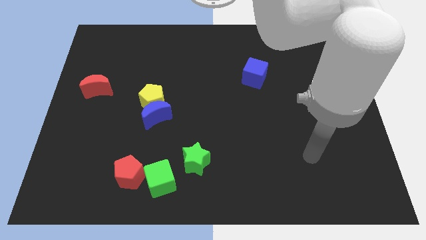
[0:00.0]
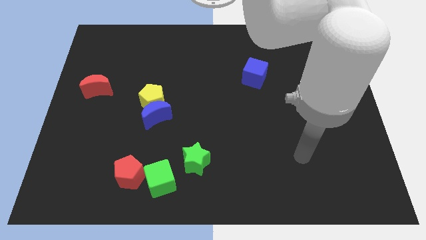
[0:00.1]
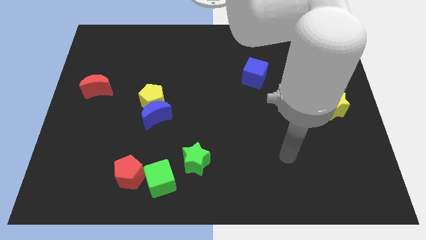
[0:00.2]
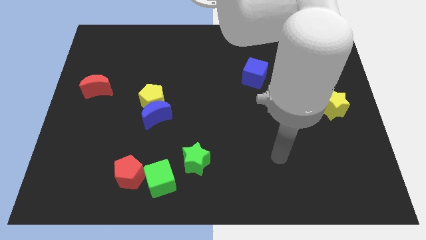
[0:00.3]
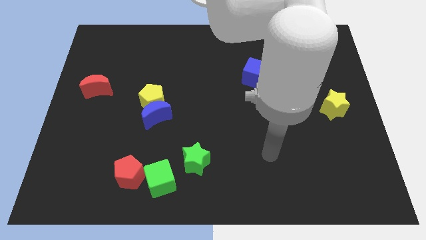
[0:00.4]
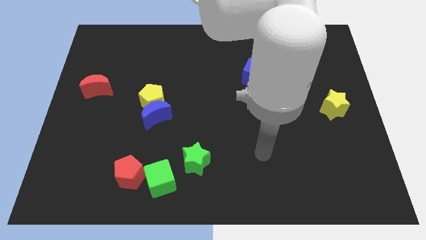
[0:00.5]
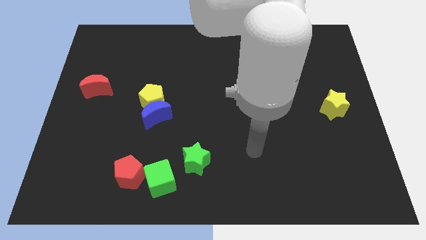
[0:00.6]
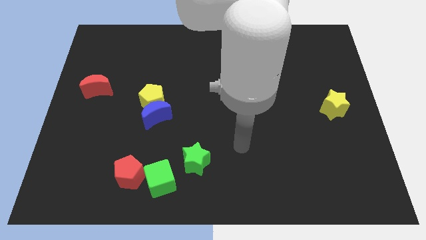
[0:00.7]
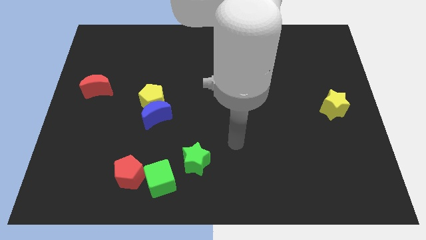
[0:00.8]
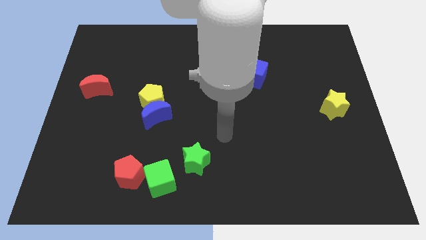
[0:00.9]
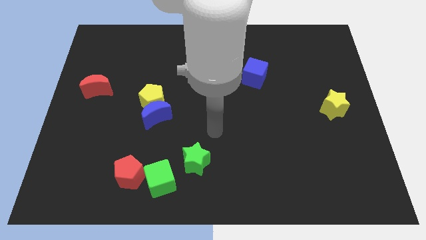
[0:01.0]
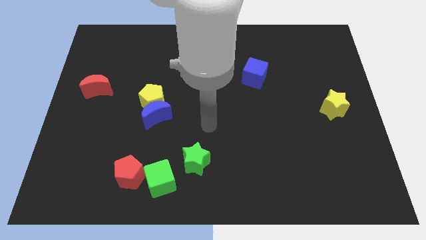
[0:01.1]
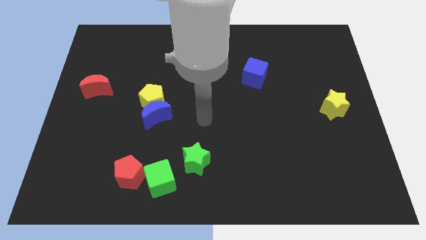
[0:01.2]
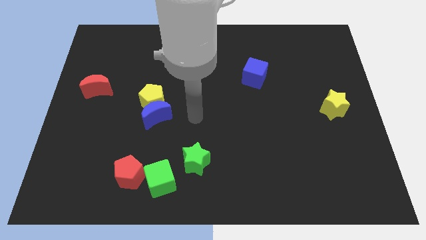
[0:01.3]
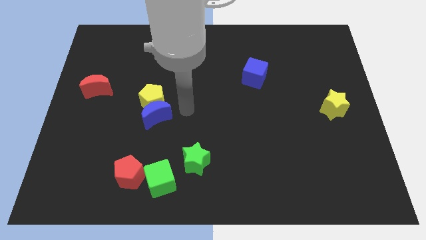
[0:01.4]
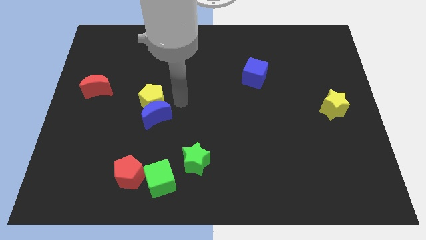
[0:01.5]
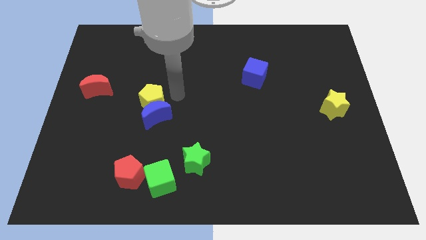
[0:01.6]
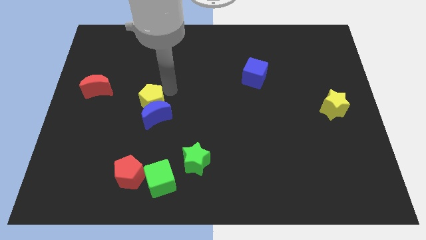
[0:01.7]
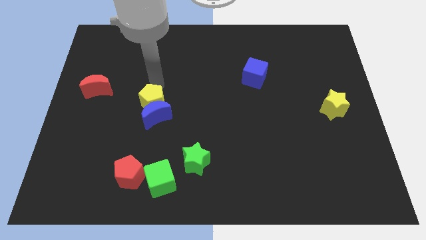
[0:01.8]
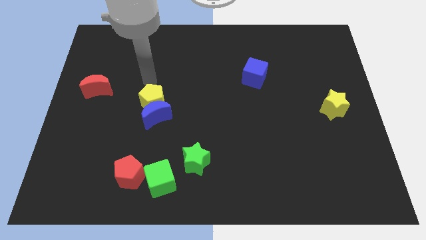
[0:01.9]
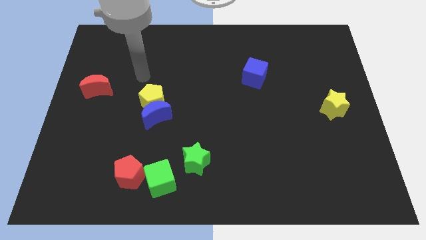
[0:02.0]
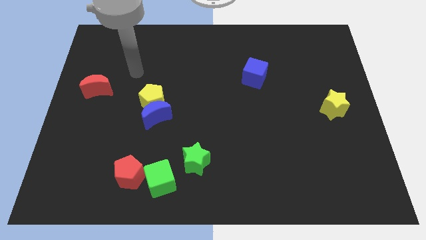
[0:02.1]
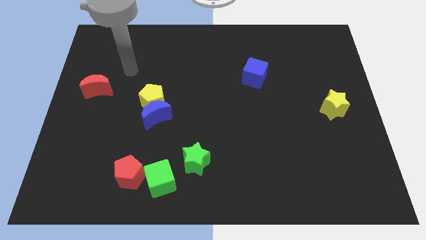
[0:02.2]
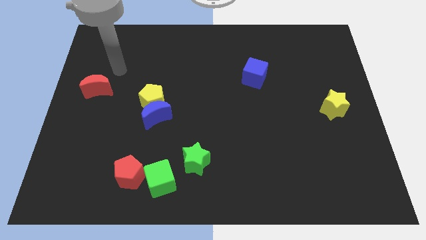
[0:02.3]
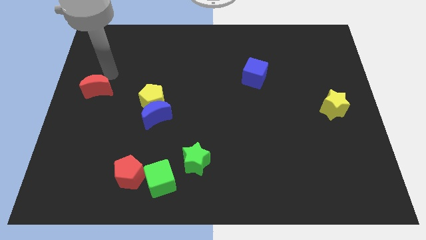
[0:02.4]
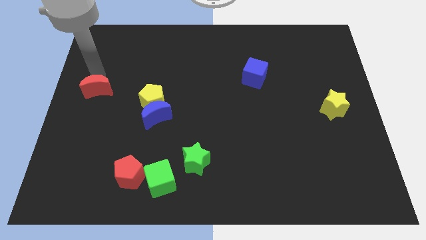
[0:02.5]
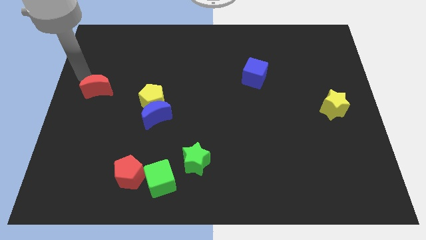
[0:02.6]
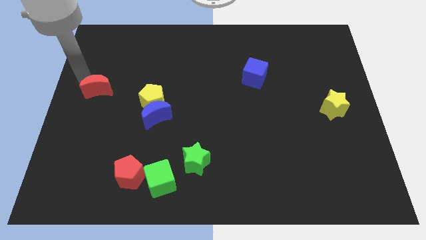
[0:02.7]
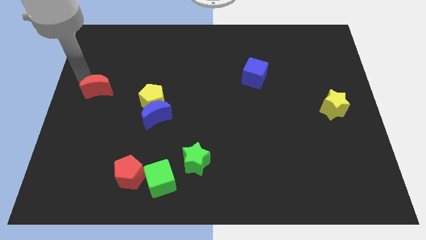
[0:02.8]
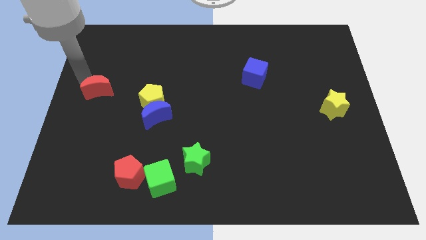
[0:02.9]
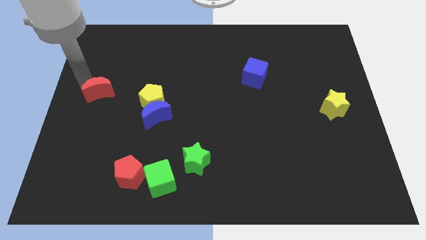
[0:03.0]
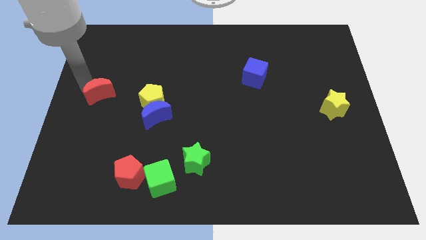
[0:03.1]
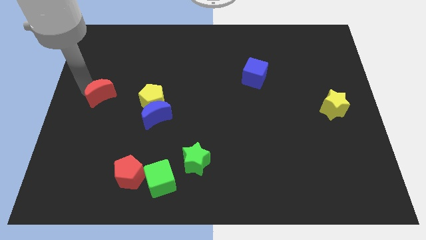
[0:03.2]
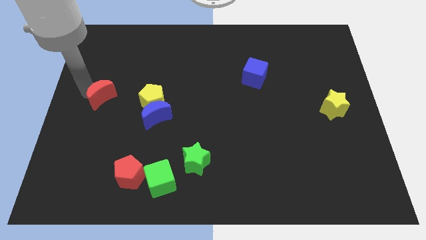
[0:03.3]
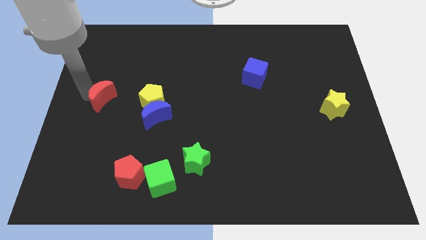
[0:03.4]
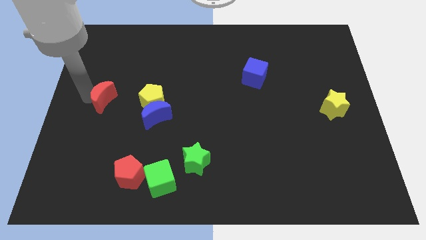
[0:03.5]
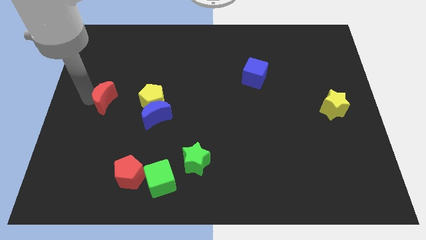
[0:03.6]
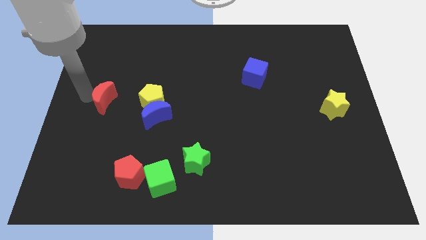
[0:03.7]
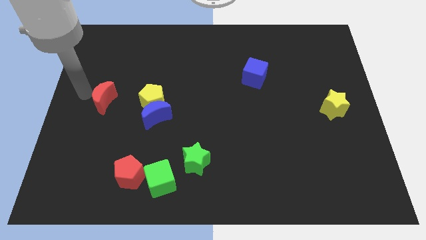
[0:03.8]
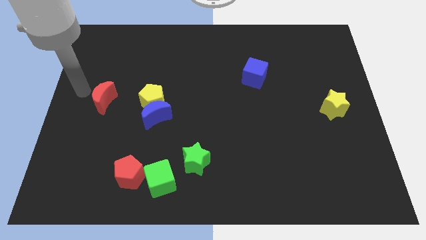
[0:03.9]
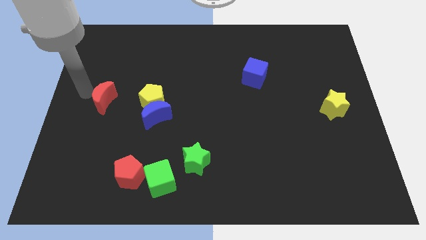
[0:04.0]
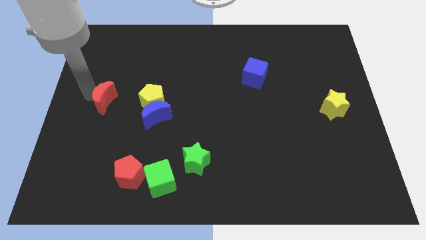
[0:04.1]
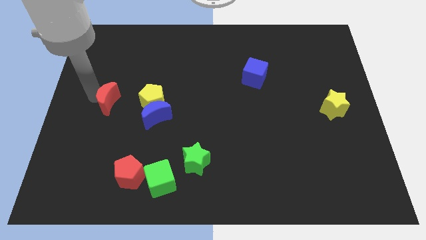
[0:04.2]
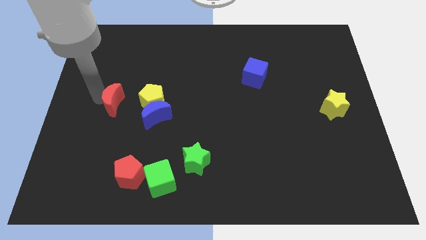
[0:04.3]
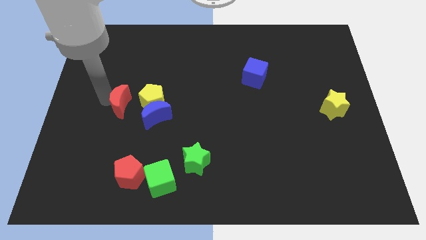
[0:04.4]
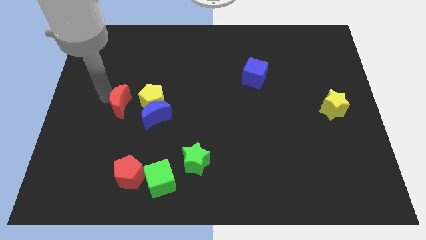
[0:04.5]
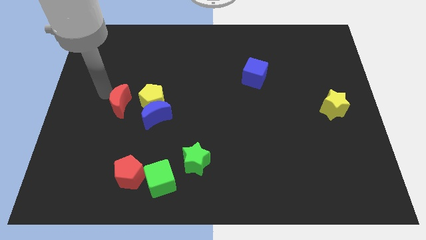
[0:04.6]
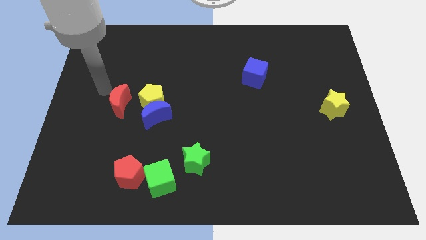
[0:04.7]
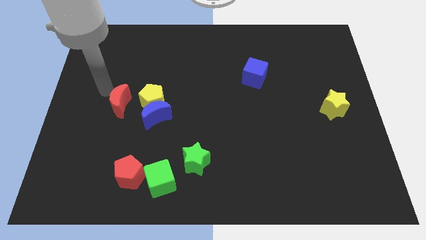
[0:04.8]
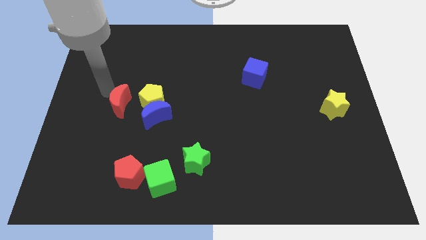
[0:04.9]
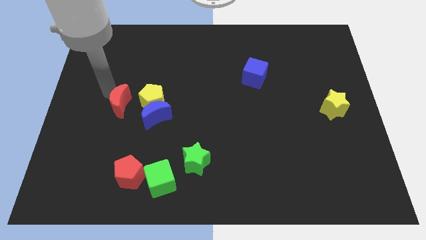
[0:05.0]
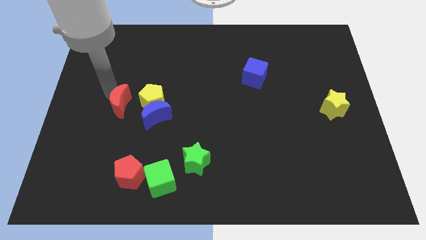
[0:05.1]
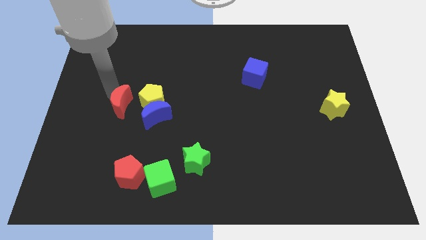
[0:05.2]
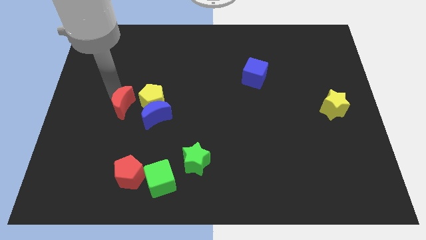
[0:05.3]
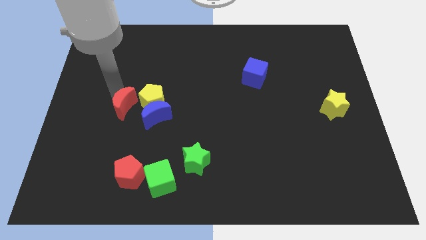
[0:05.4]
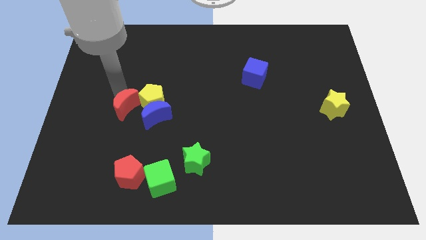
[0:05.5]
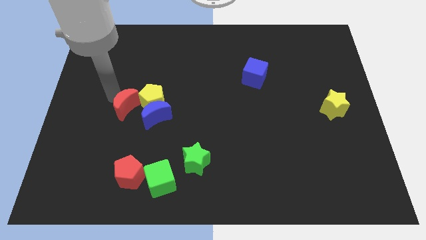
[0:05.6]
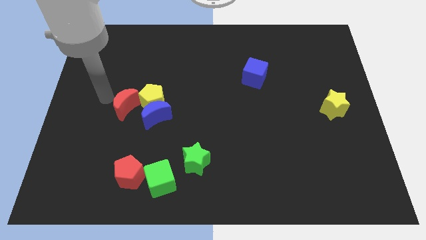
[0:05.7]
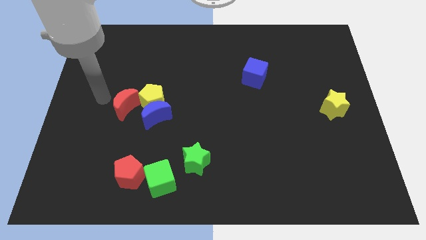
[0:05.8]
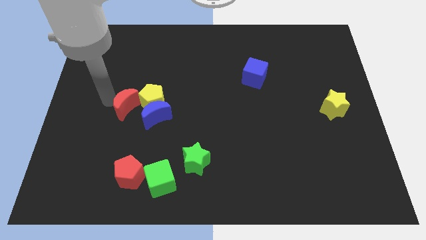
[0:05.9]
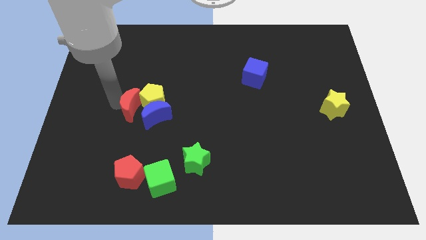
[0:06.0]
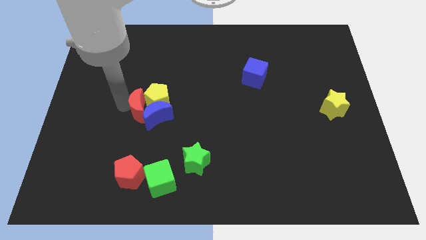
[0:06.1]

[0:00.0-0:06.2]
slide the red moon close to the blue moon

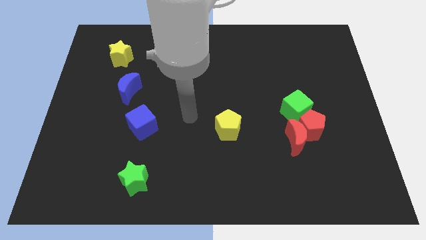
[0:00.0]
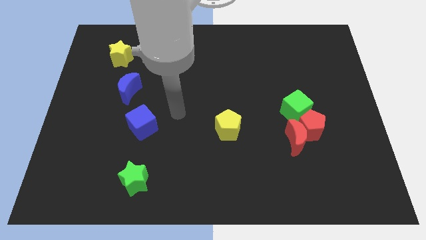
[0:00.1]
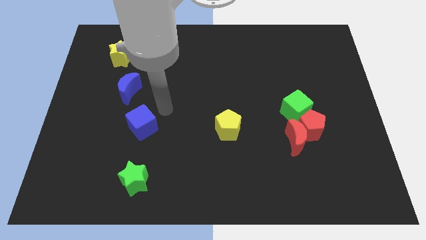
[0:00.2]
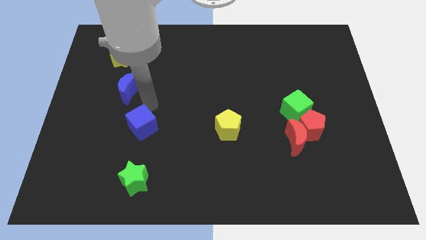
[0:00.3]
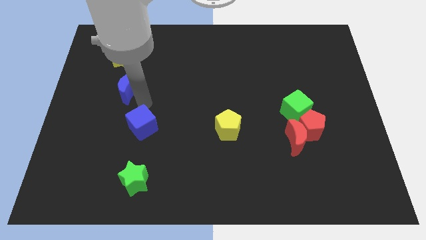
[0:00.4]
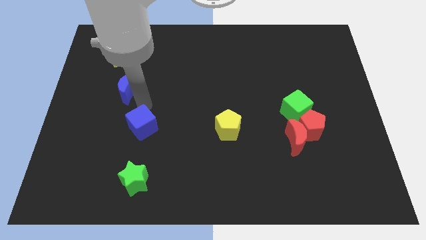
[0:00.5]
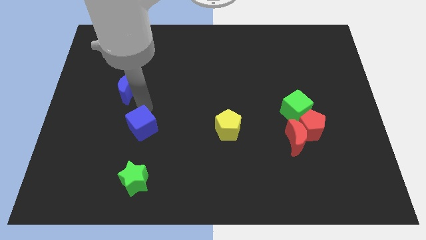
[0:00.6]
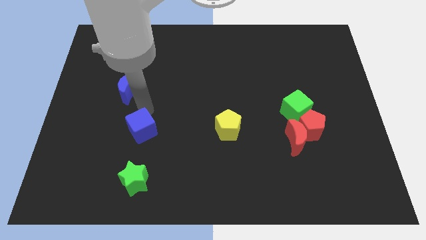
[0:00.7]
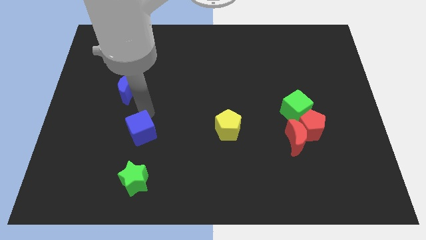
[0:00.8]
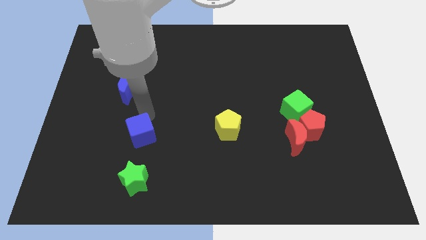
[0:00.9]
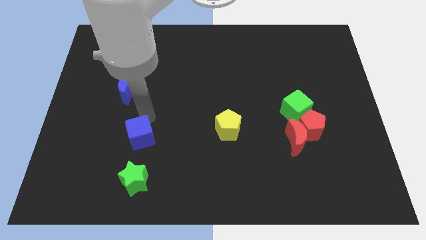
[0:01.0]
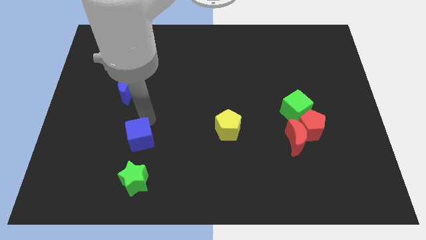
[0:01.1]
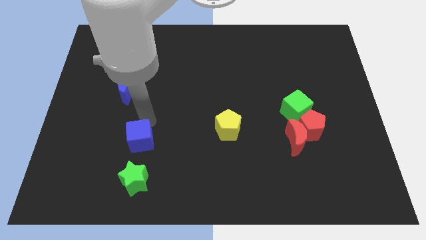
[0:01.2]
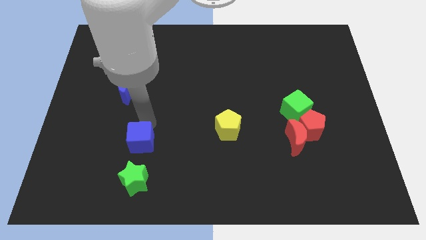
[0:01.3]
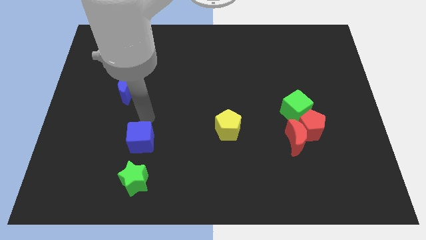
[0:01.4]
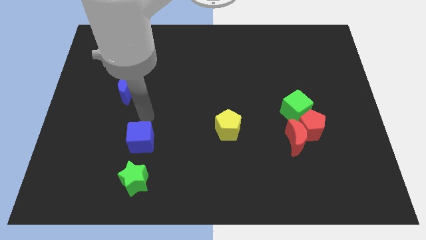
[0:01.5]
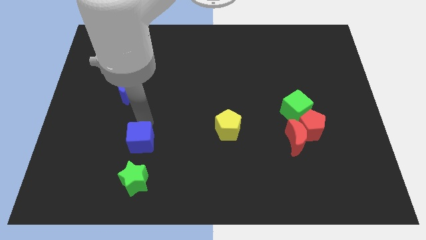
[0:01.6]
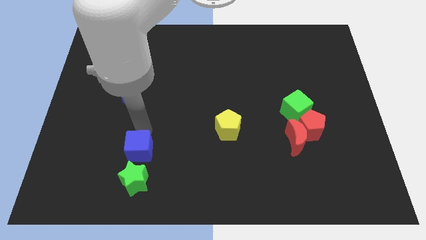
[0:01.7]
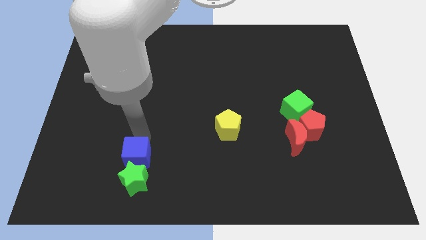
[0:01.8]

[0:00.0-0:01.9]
slide the blue cube close to the green star
